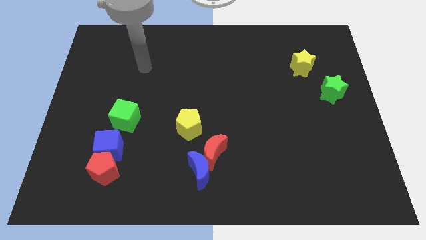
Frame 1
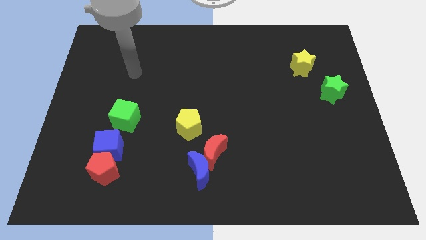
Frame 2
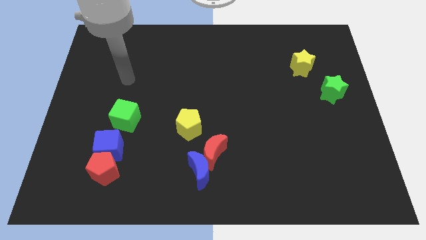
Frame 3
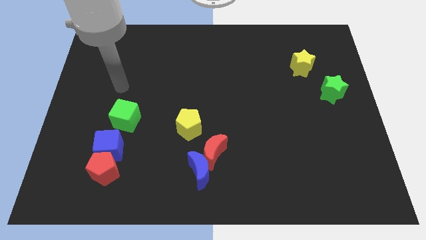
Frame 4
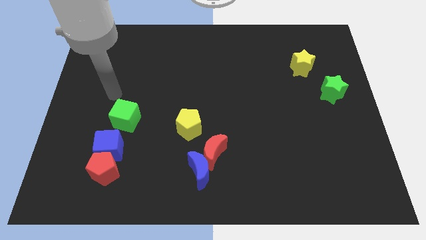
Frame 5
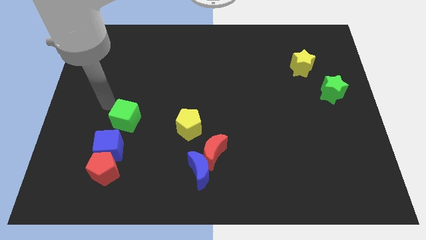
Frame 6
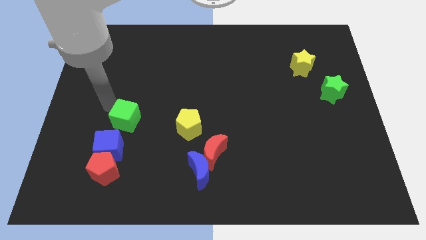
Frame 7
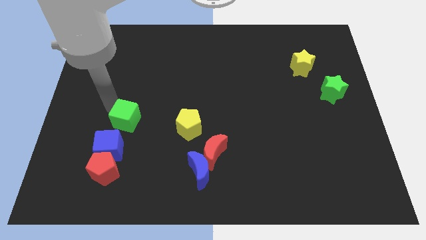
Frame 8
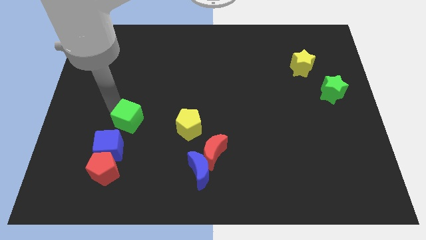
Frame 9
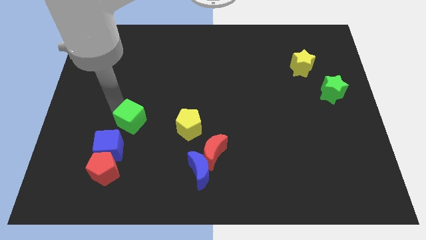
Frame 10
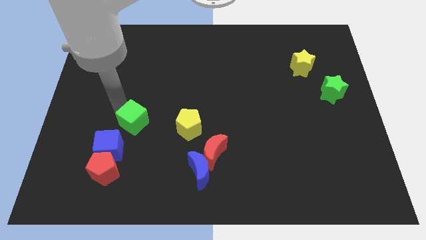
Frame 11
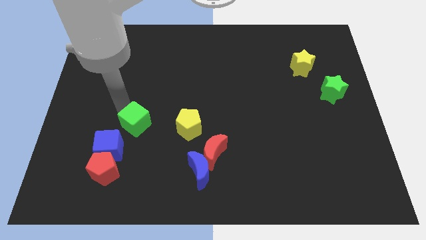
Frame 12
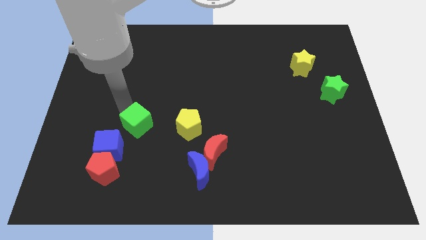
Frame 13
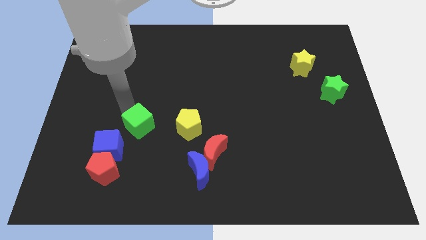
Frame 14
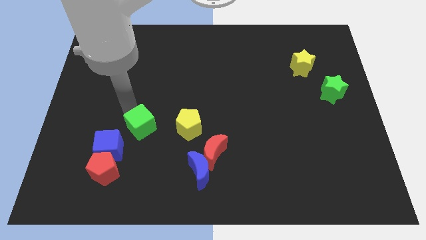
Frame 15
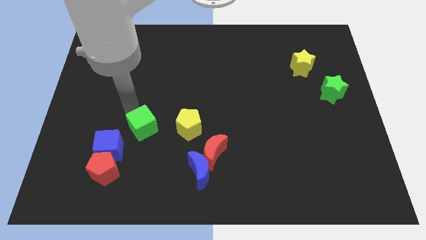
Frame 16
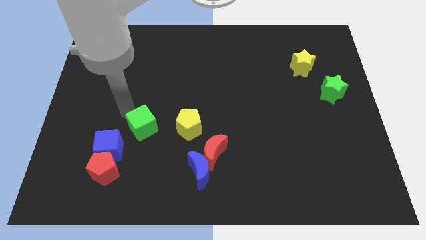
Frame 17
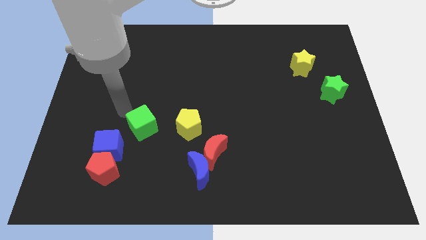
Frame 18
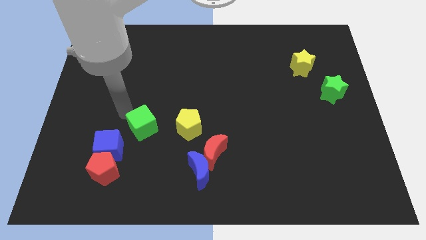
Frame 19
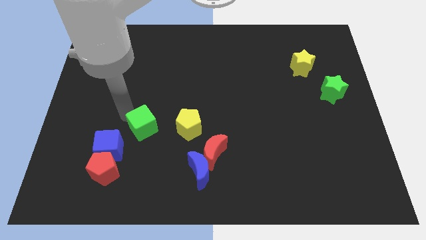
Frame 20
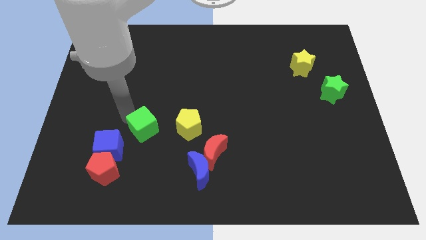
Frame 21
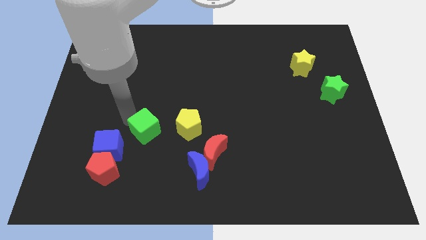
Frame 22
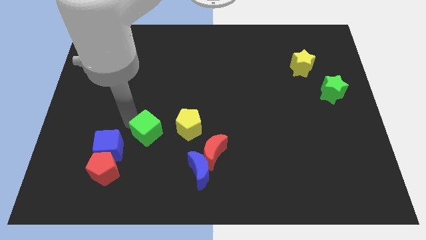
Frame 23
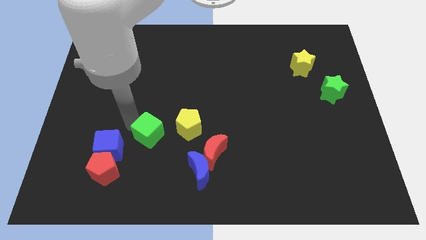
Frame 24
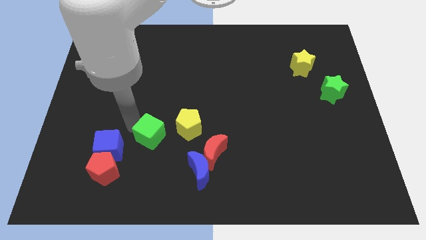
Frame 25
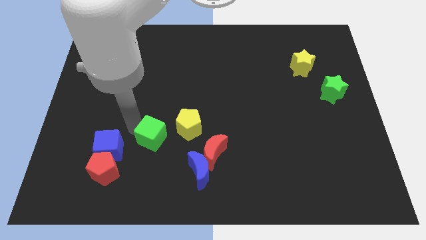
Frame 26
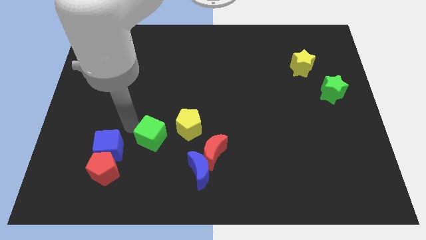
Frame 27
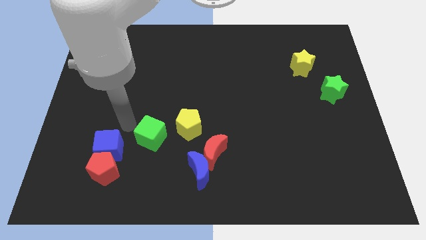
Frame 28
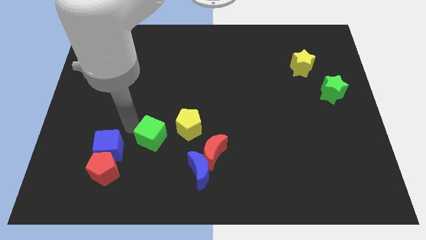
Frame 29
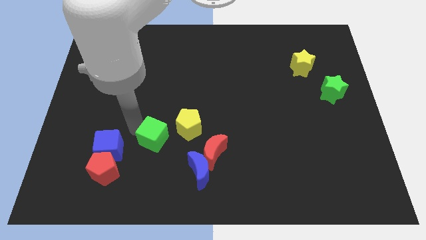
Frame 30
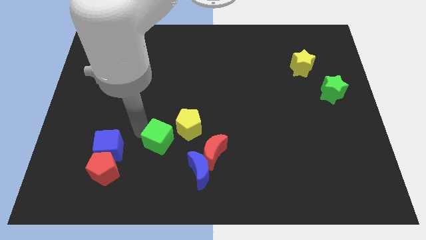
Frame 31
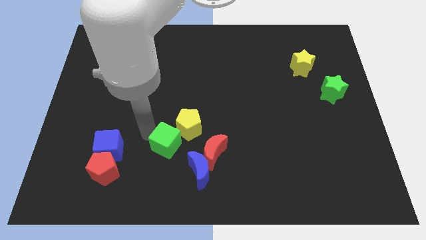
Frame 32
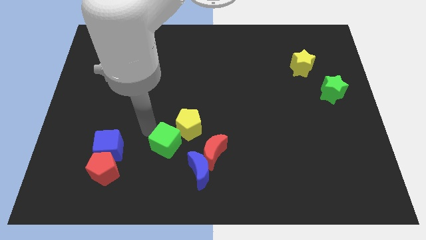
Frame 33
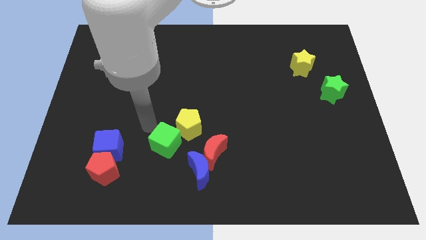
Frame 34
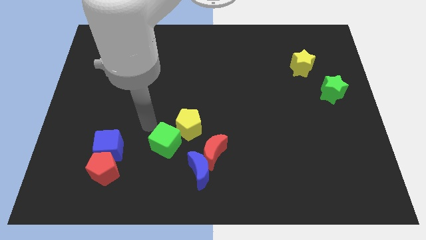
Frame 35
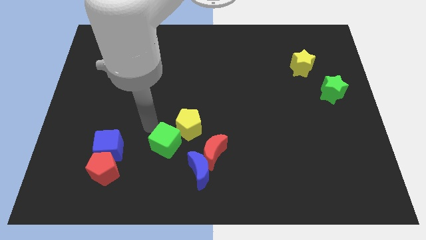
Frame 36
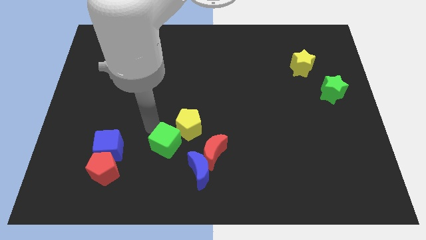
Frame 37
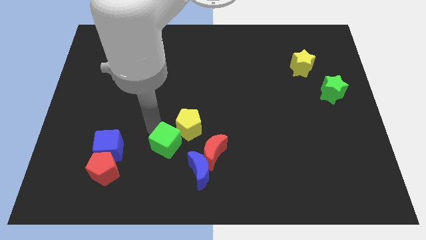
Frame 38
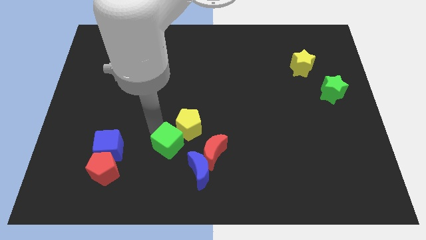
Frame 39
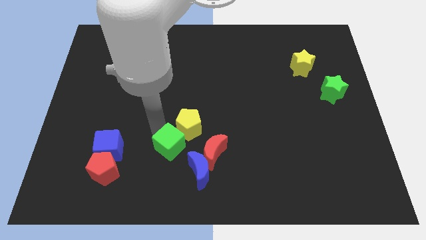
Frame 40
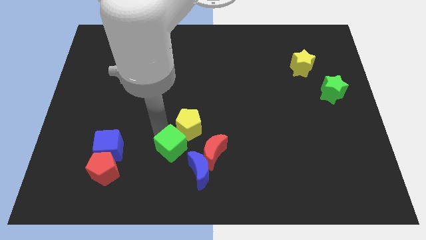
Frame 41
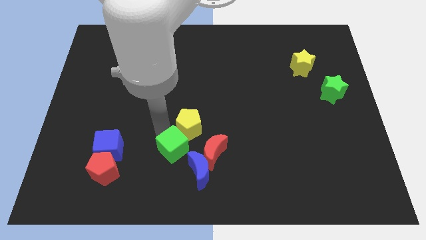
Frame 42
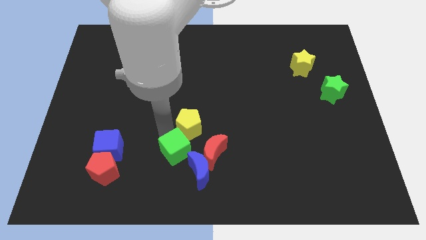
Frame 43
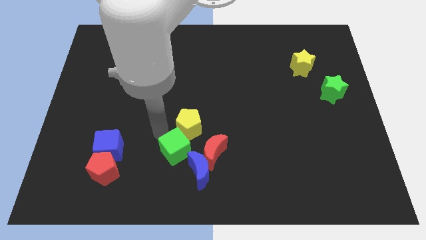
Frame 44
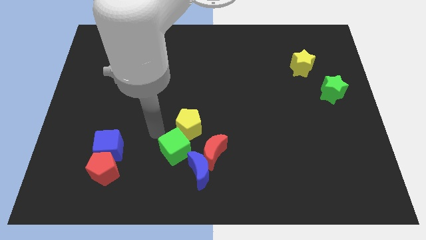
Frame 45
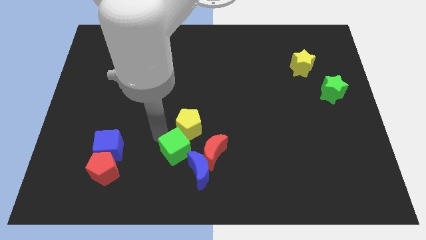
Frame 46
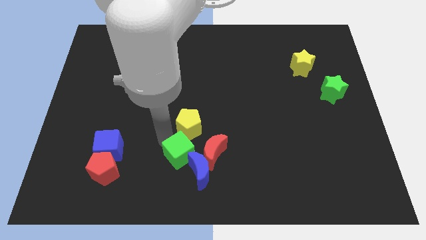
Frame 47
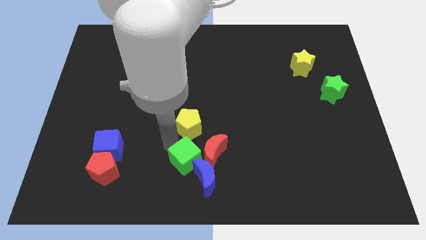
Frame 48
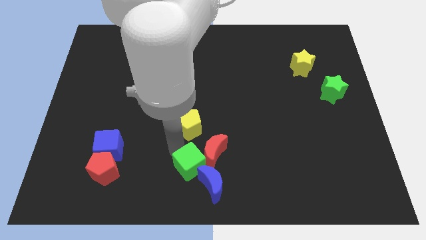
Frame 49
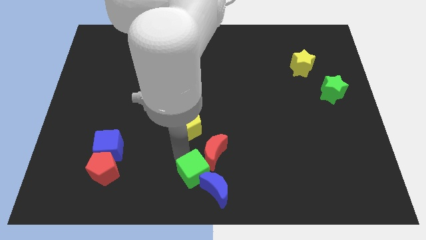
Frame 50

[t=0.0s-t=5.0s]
push the green cube towards the blue moon

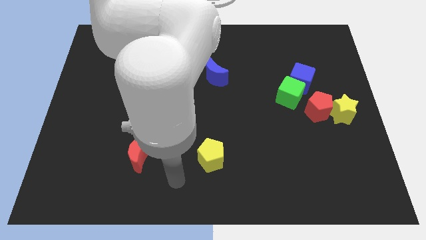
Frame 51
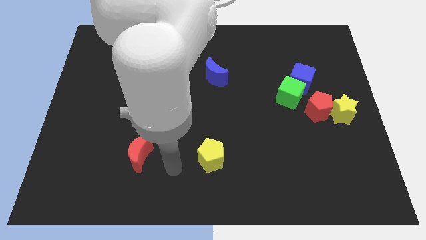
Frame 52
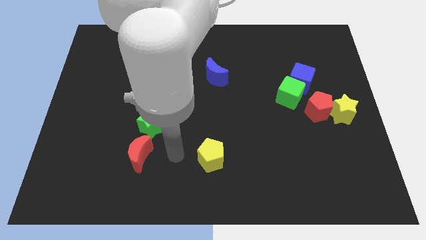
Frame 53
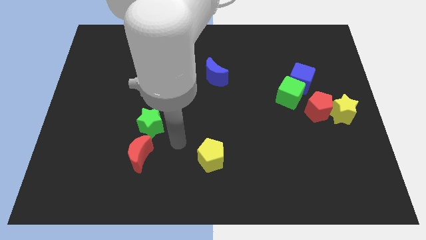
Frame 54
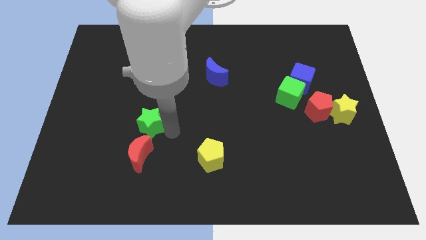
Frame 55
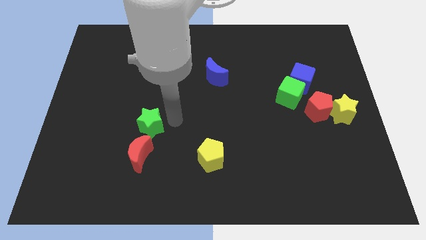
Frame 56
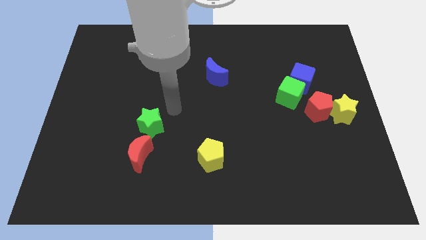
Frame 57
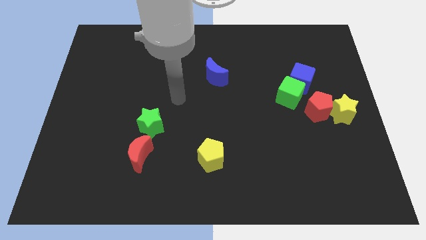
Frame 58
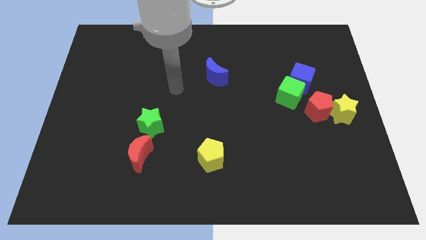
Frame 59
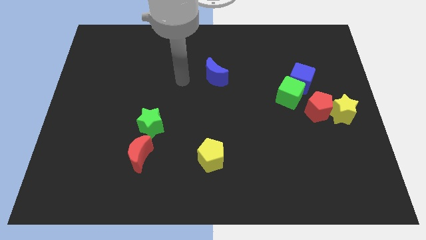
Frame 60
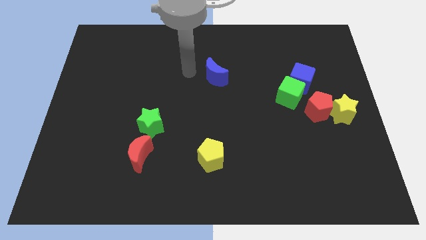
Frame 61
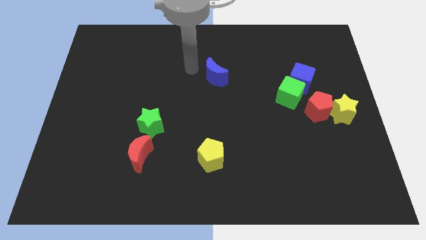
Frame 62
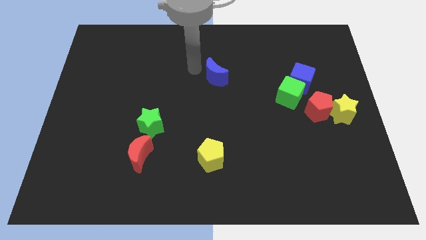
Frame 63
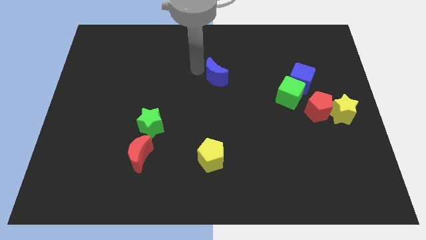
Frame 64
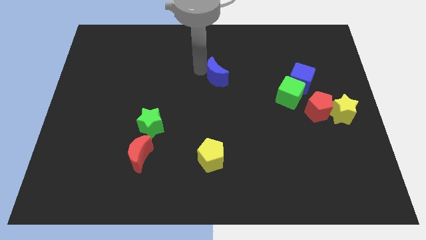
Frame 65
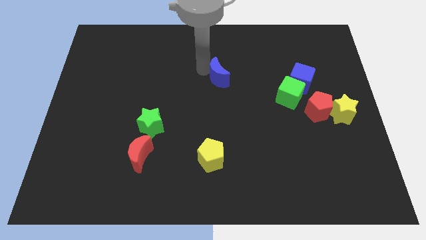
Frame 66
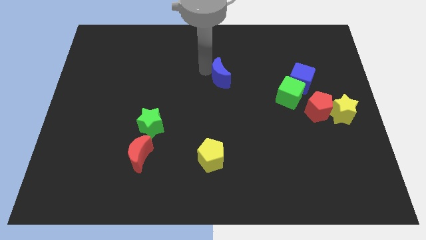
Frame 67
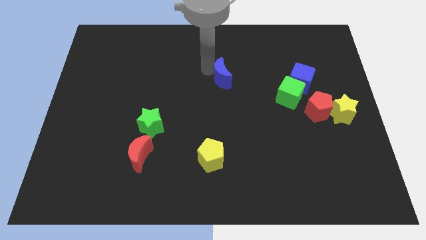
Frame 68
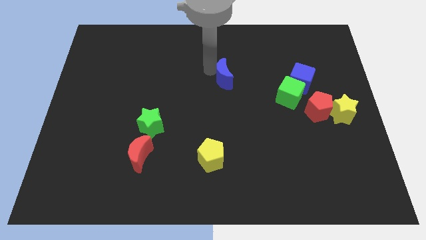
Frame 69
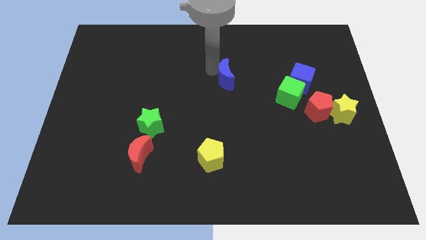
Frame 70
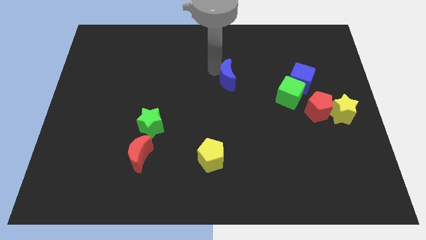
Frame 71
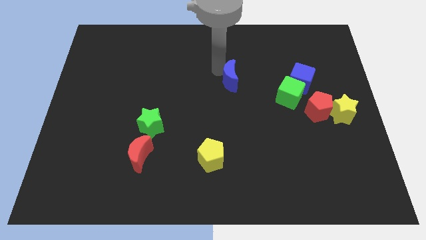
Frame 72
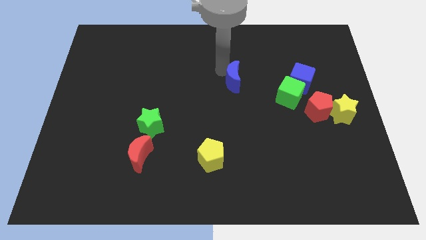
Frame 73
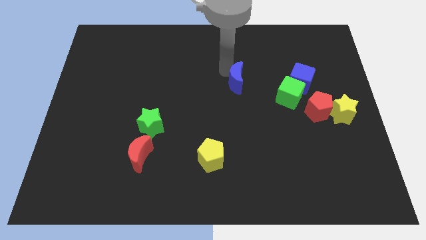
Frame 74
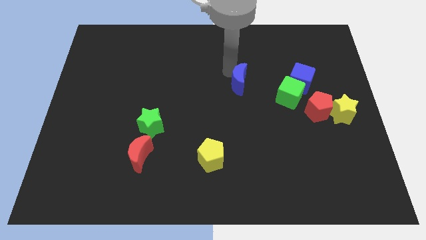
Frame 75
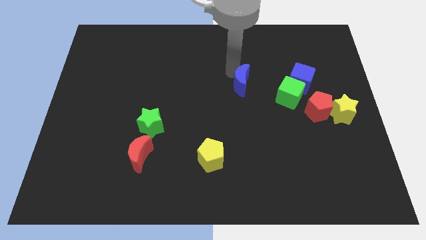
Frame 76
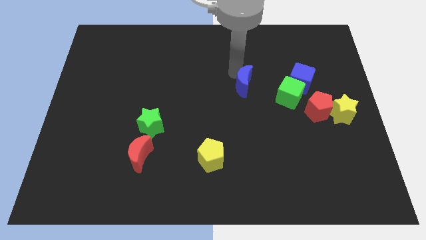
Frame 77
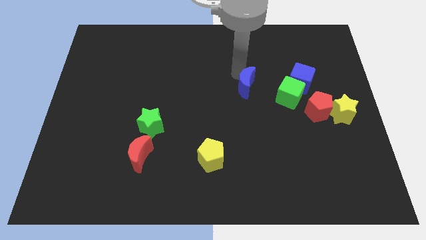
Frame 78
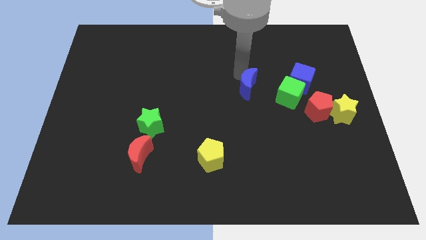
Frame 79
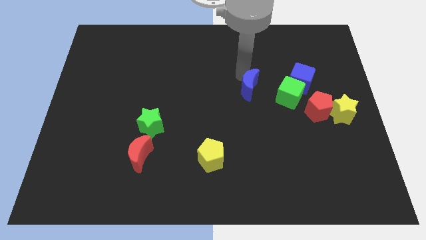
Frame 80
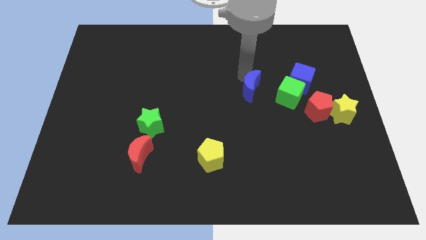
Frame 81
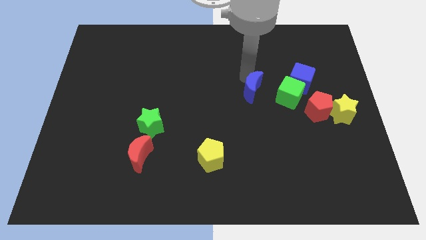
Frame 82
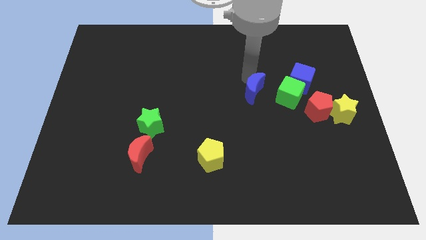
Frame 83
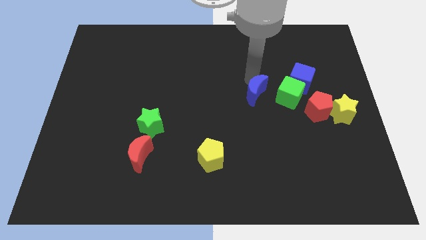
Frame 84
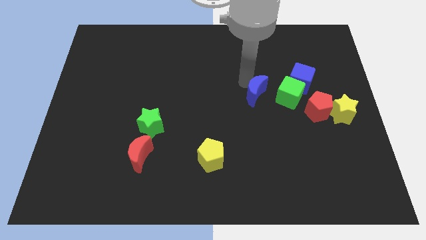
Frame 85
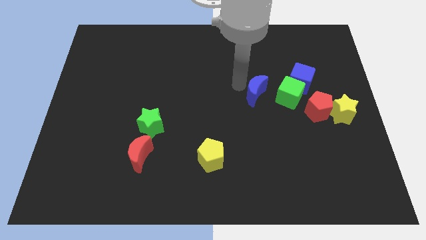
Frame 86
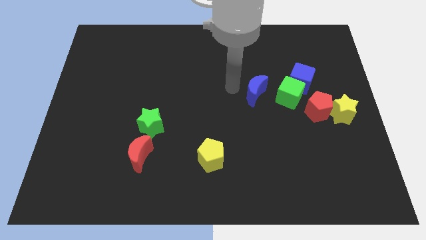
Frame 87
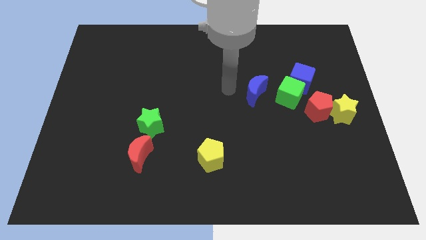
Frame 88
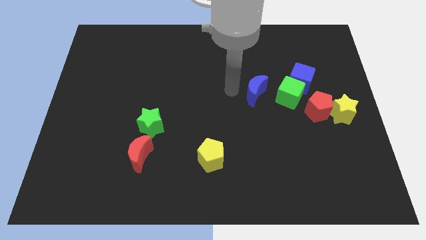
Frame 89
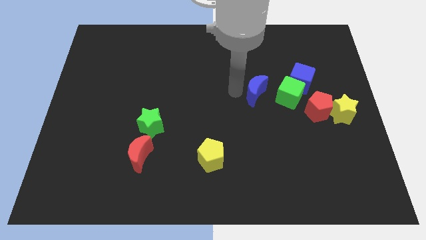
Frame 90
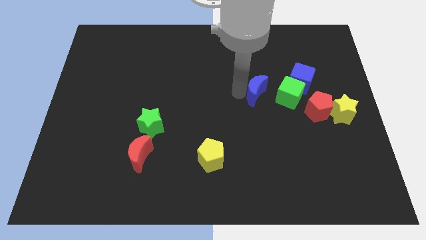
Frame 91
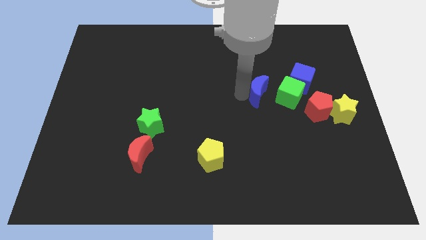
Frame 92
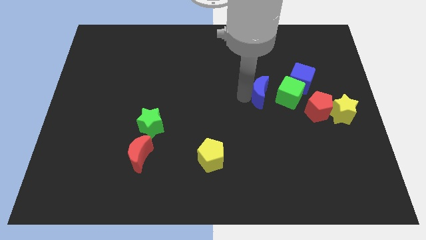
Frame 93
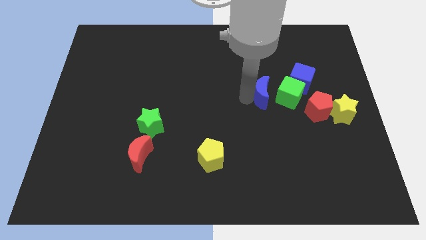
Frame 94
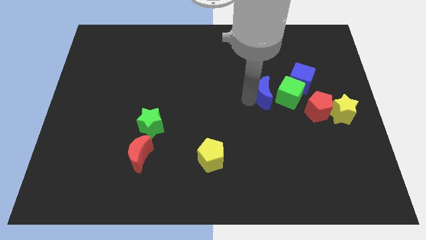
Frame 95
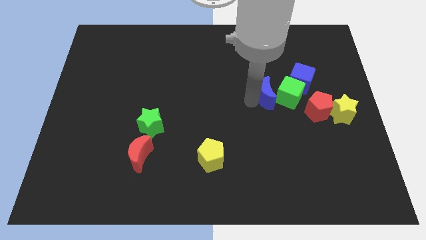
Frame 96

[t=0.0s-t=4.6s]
slide the blue moon towards the green cube
